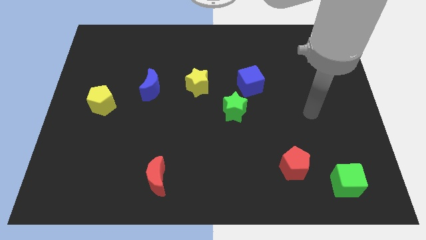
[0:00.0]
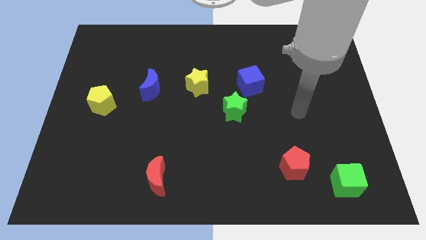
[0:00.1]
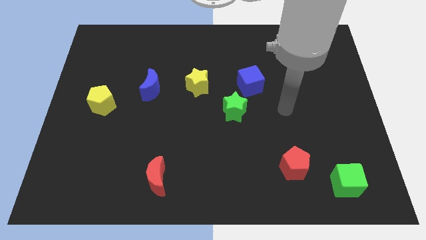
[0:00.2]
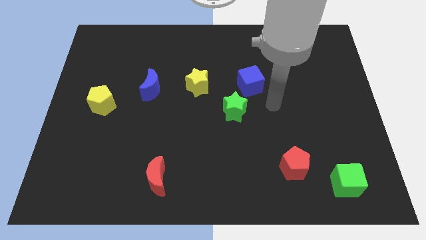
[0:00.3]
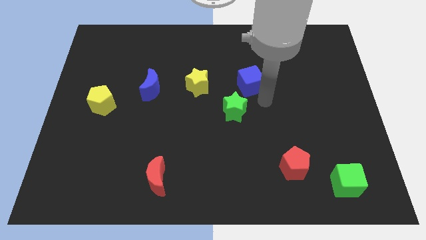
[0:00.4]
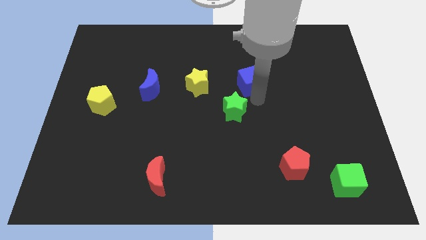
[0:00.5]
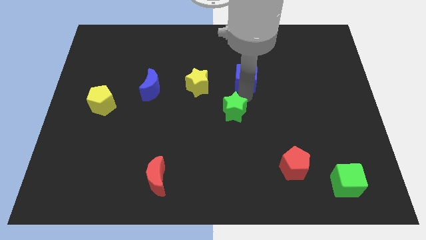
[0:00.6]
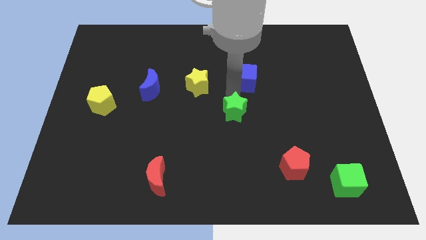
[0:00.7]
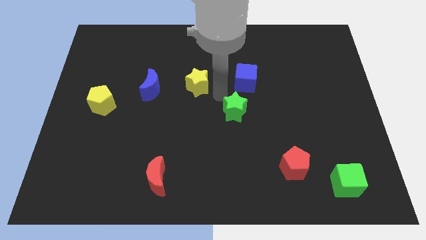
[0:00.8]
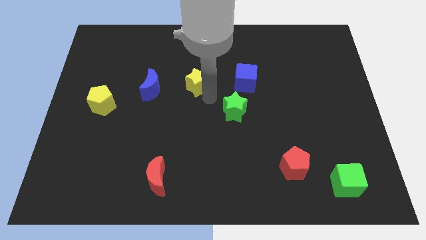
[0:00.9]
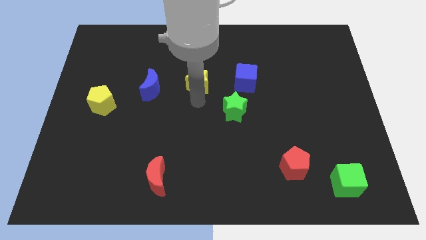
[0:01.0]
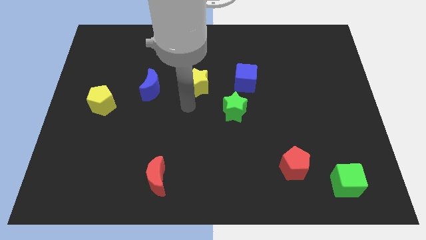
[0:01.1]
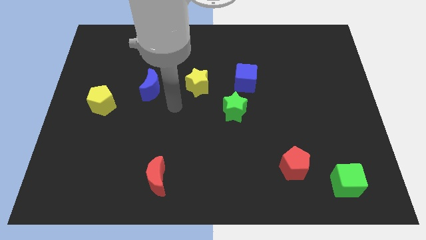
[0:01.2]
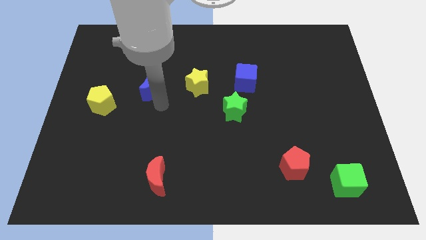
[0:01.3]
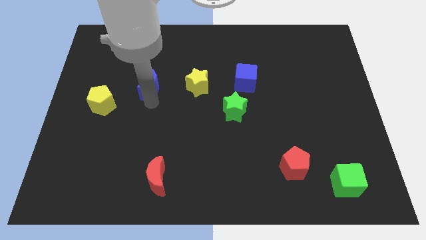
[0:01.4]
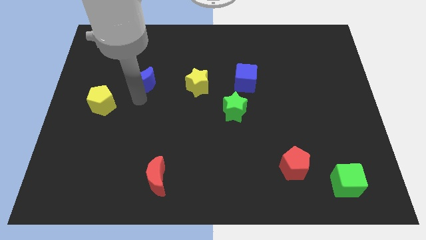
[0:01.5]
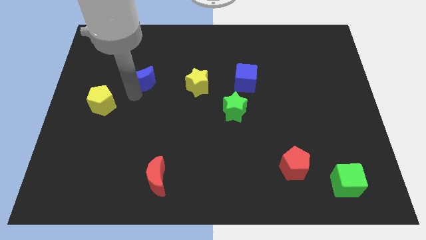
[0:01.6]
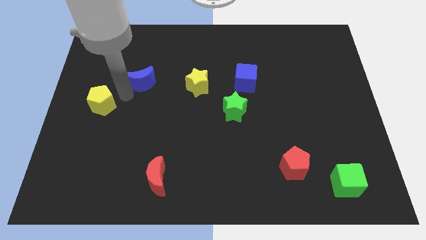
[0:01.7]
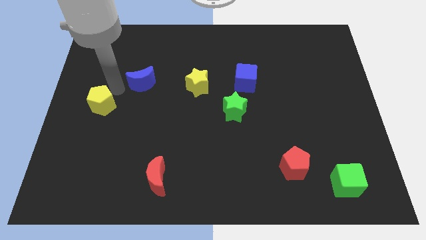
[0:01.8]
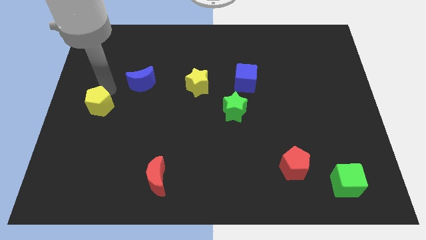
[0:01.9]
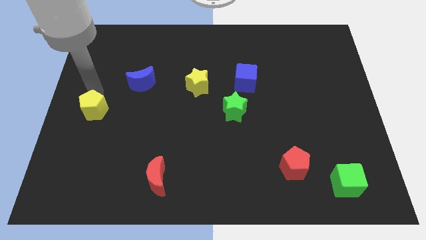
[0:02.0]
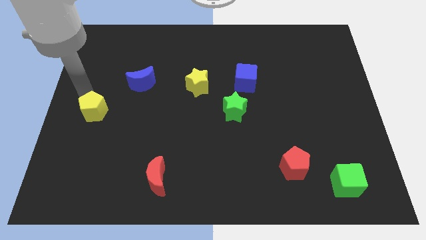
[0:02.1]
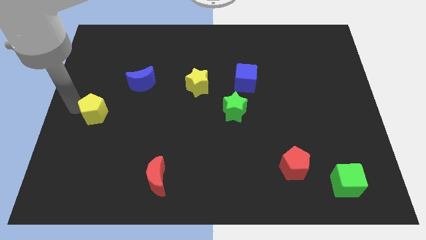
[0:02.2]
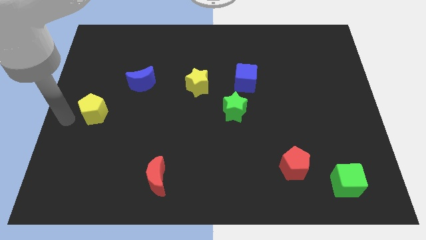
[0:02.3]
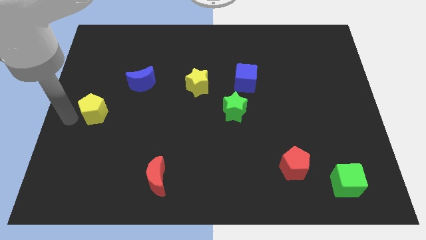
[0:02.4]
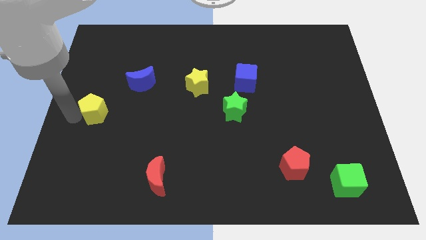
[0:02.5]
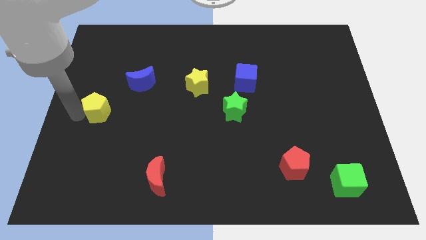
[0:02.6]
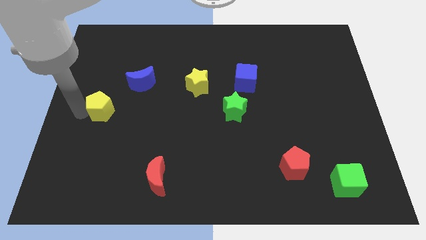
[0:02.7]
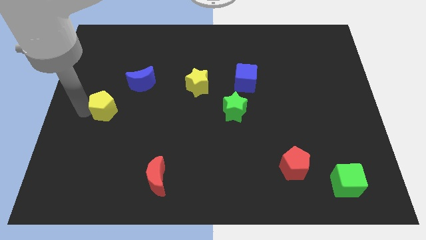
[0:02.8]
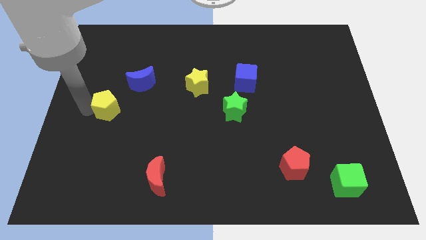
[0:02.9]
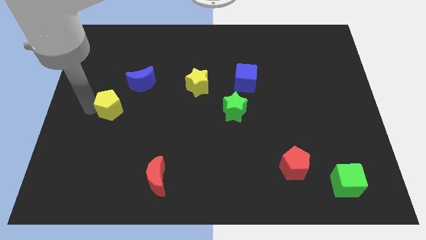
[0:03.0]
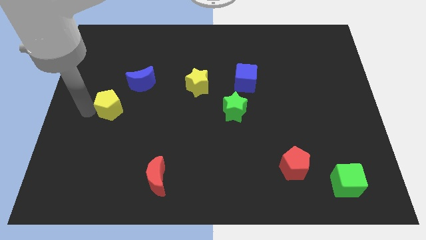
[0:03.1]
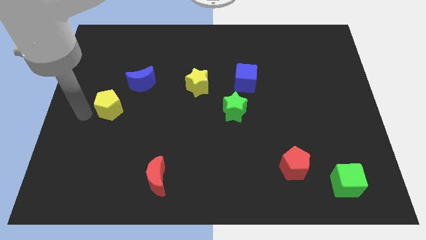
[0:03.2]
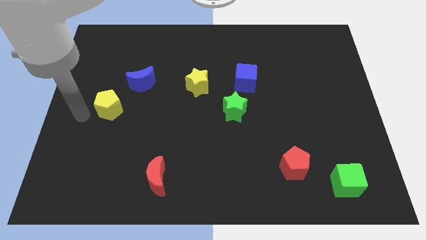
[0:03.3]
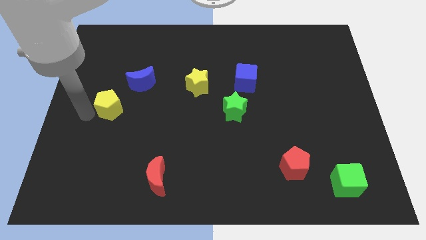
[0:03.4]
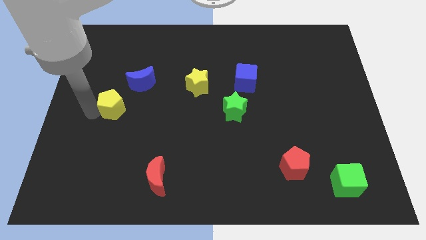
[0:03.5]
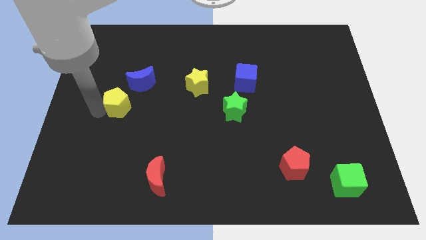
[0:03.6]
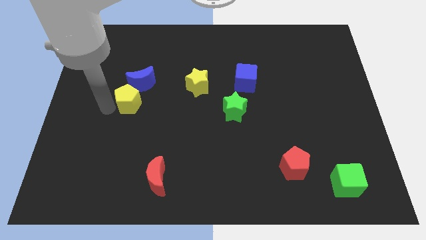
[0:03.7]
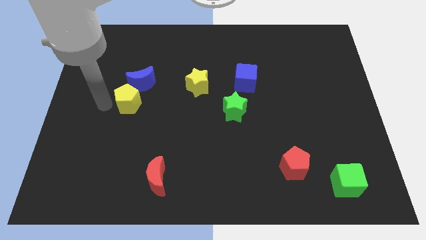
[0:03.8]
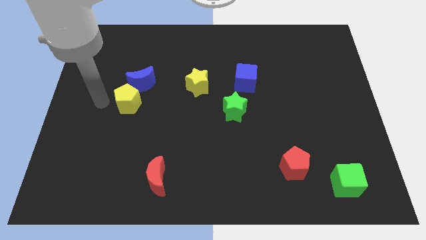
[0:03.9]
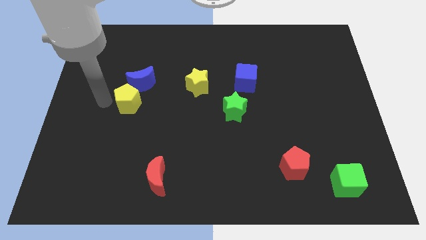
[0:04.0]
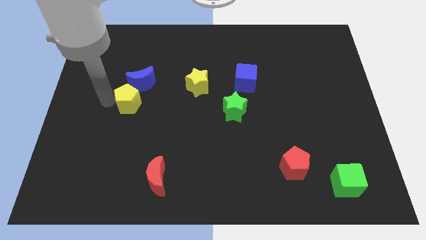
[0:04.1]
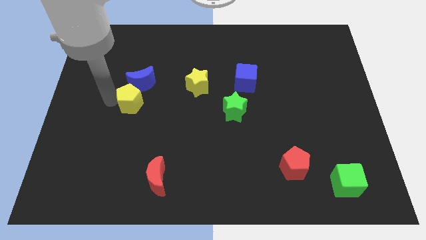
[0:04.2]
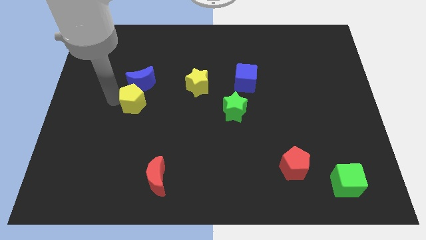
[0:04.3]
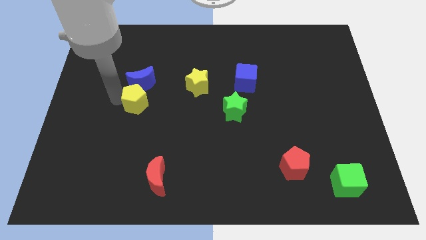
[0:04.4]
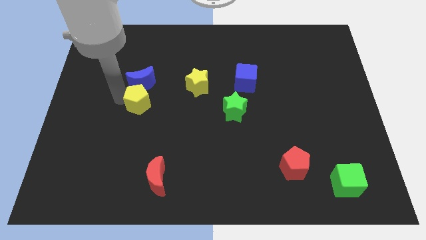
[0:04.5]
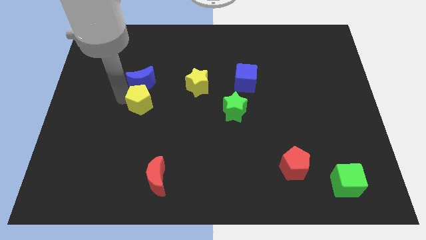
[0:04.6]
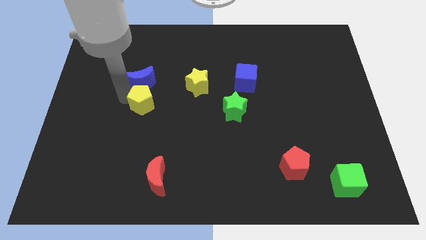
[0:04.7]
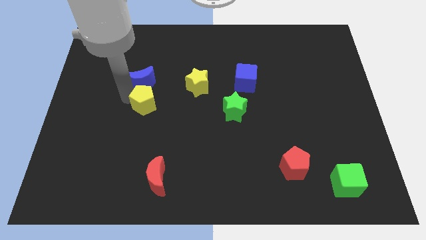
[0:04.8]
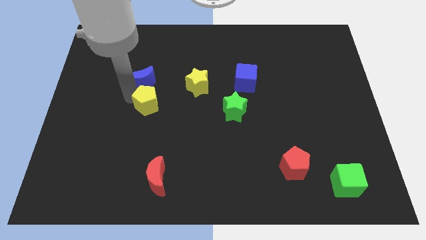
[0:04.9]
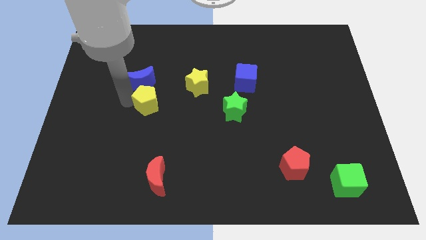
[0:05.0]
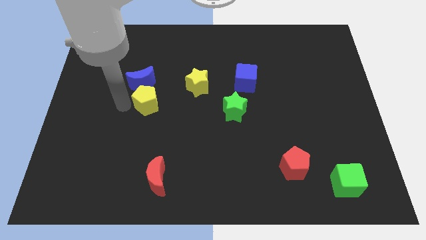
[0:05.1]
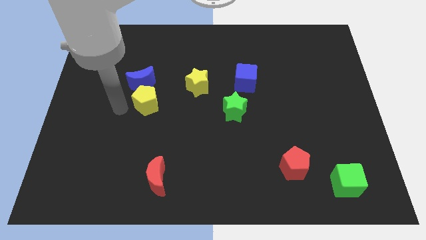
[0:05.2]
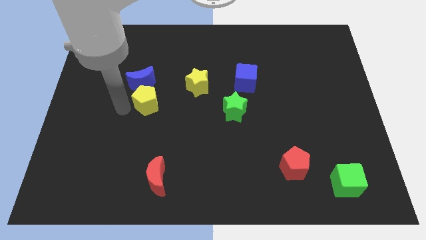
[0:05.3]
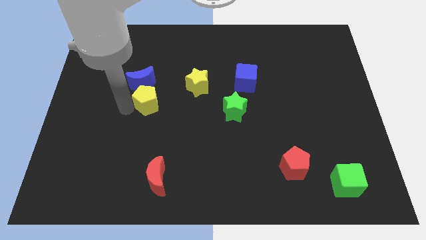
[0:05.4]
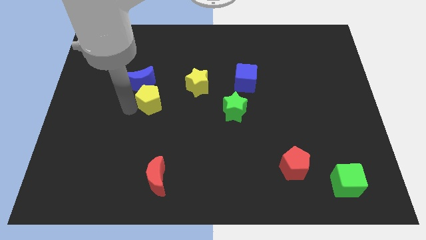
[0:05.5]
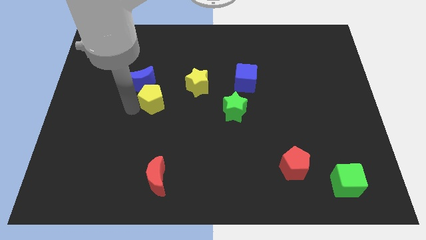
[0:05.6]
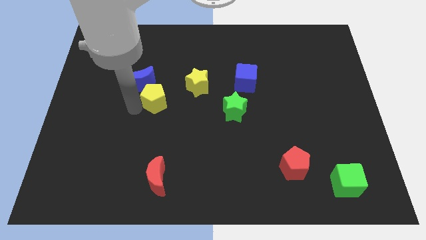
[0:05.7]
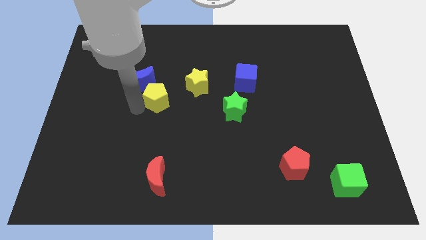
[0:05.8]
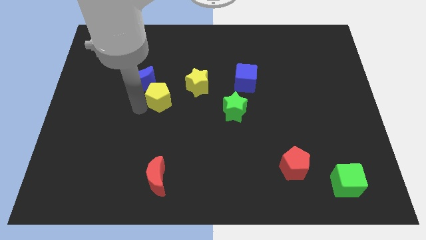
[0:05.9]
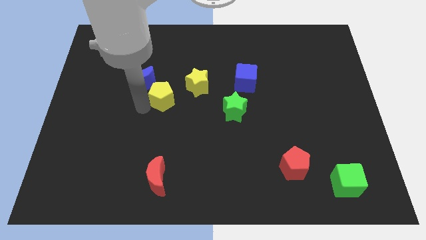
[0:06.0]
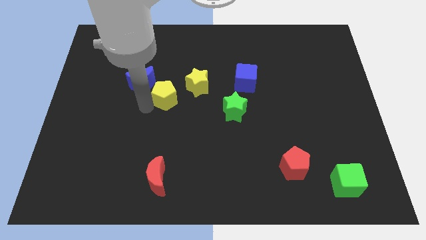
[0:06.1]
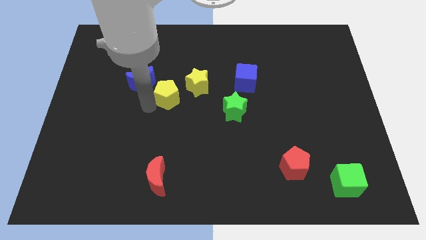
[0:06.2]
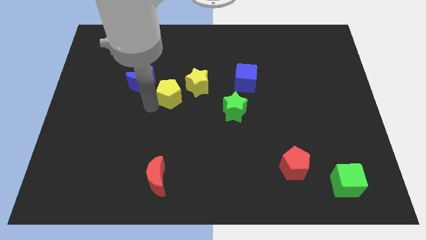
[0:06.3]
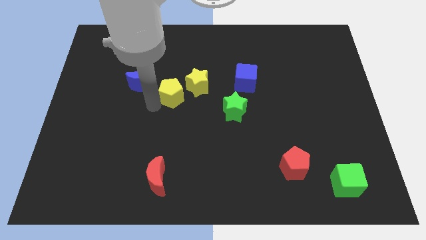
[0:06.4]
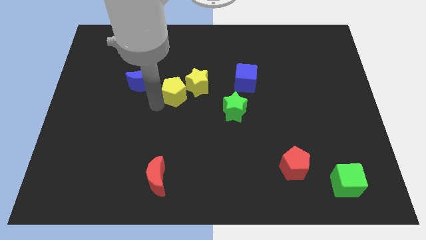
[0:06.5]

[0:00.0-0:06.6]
put the yellow pentagon next to the yellow star

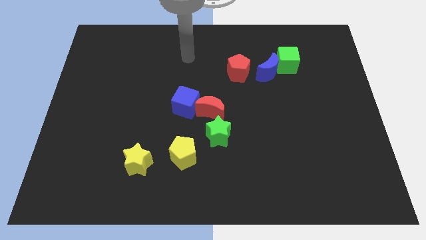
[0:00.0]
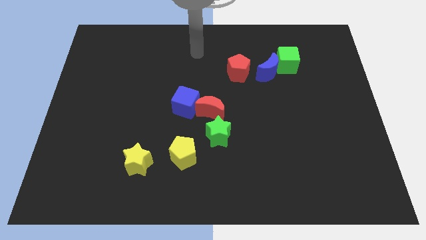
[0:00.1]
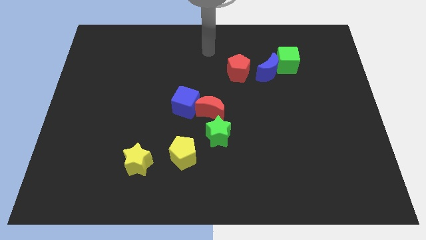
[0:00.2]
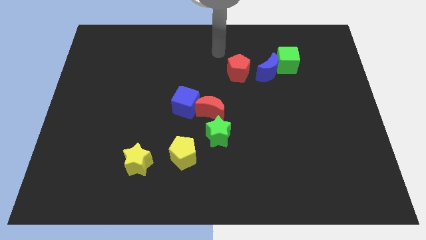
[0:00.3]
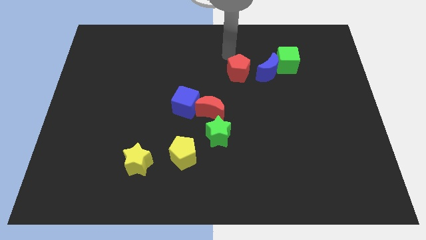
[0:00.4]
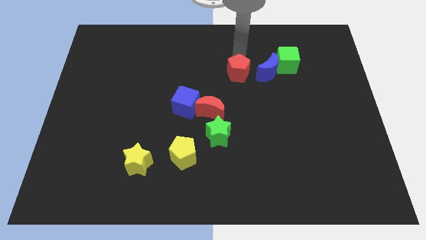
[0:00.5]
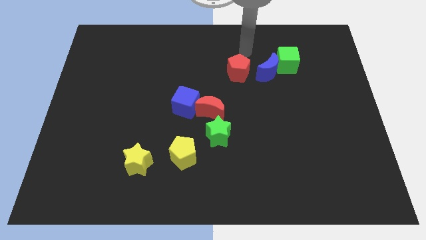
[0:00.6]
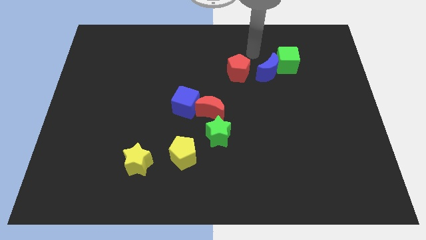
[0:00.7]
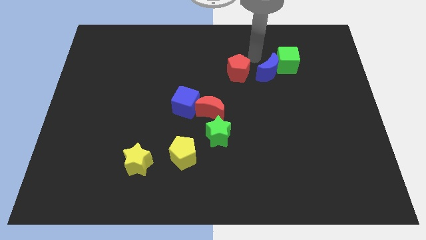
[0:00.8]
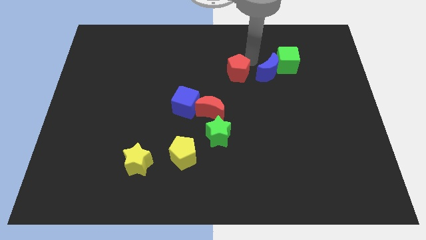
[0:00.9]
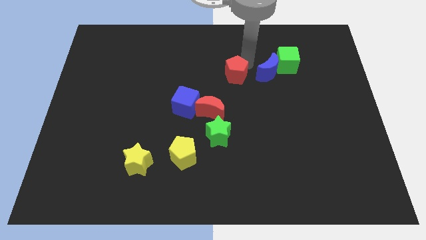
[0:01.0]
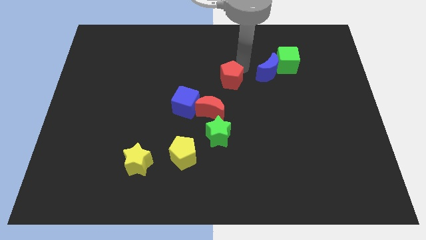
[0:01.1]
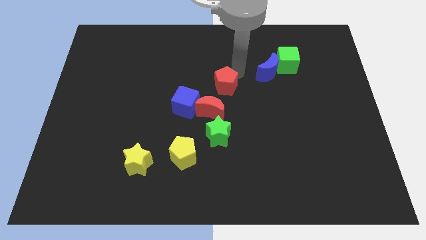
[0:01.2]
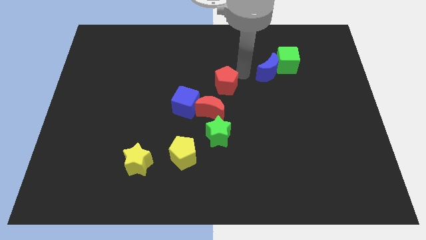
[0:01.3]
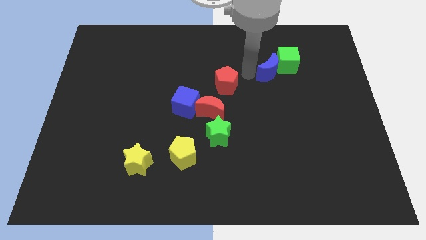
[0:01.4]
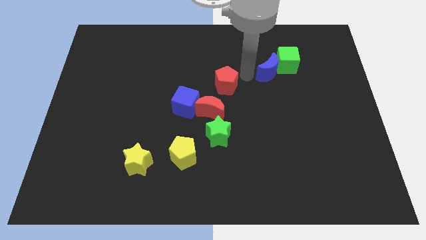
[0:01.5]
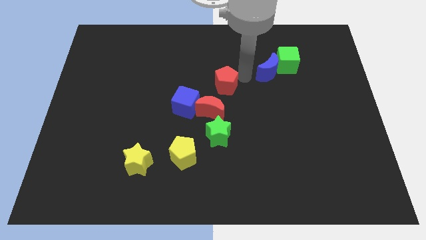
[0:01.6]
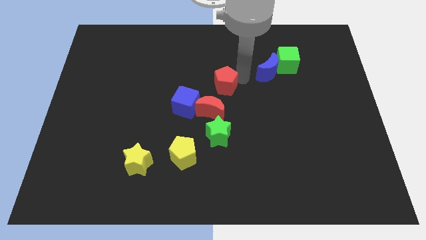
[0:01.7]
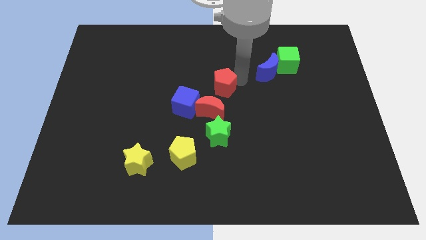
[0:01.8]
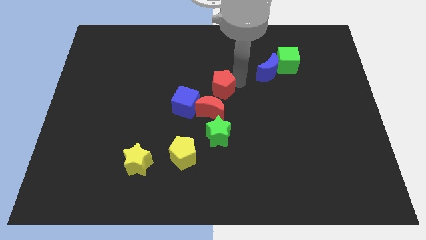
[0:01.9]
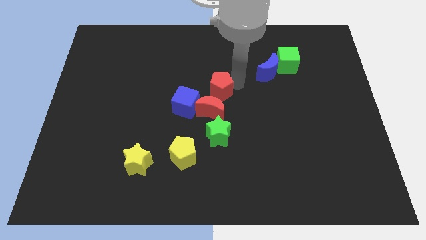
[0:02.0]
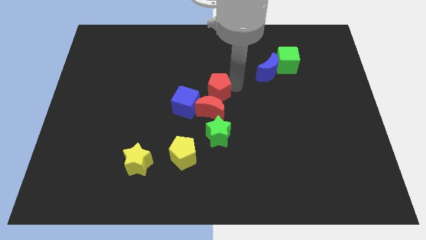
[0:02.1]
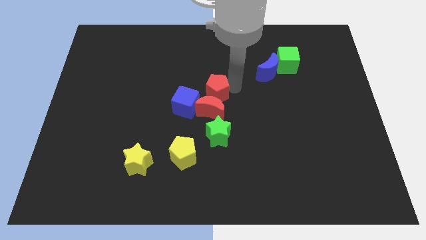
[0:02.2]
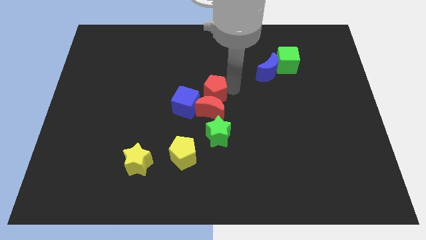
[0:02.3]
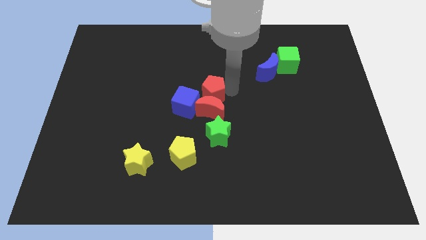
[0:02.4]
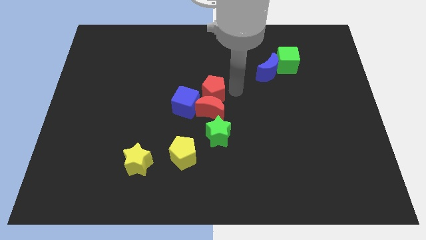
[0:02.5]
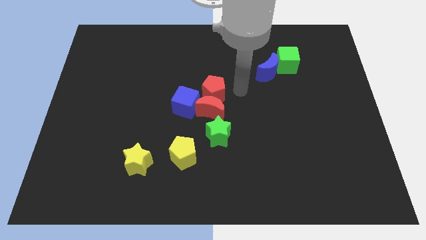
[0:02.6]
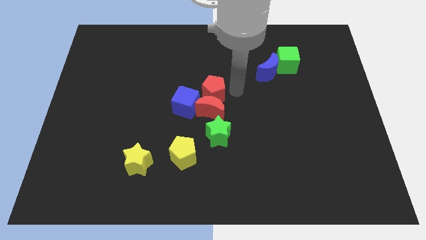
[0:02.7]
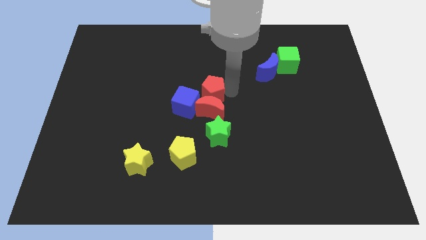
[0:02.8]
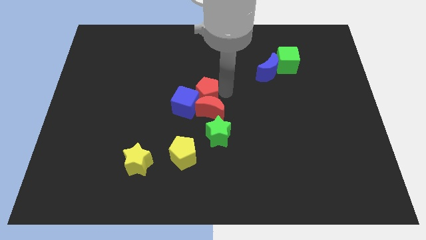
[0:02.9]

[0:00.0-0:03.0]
slide the red pentagon towards the blue cube
